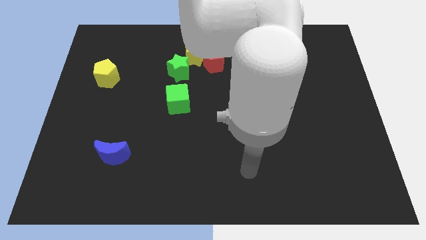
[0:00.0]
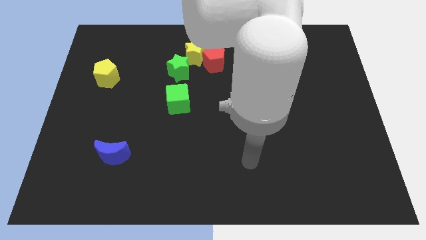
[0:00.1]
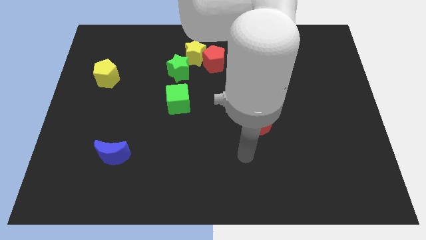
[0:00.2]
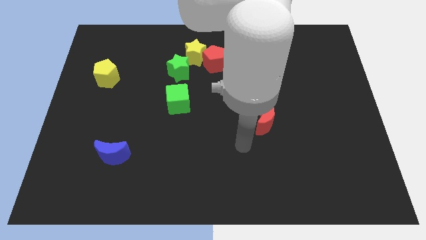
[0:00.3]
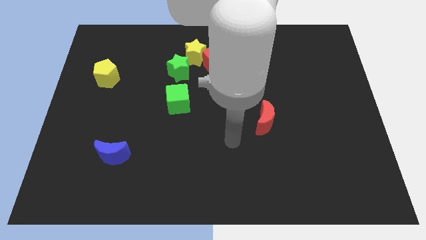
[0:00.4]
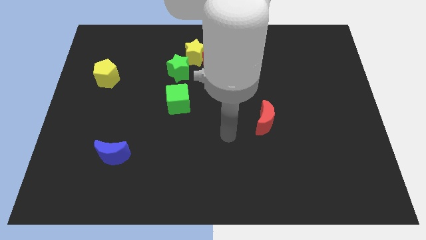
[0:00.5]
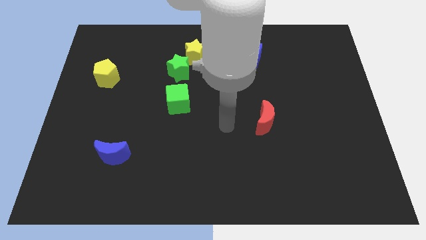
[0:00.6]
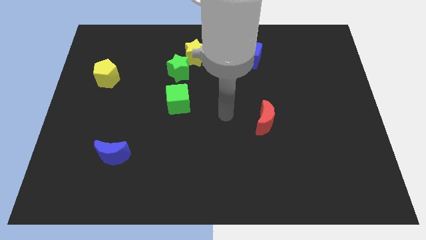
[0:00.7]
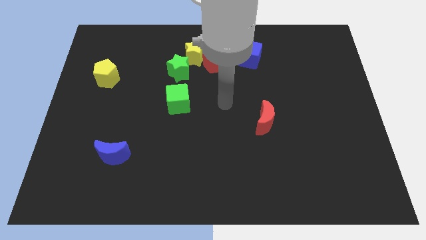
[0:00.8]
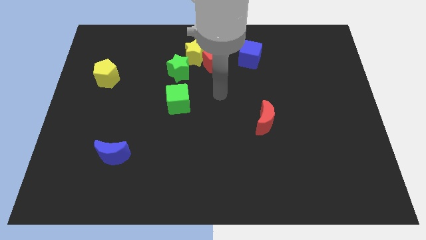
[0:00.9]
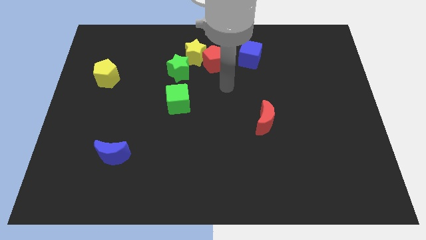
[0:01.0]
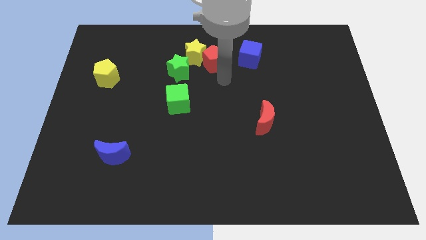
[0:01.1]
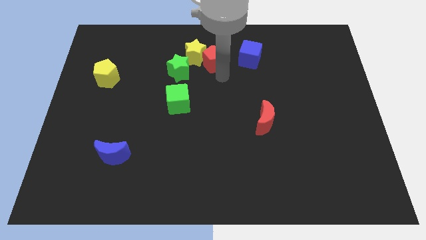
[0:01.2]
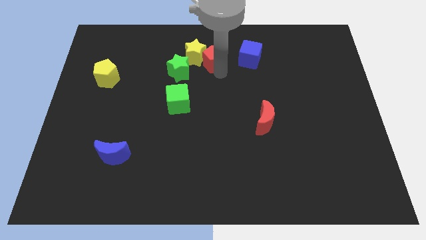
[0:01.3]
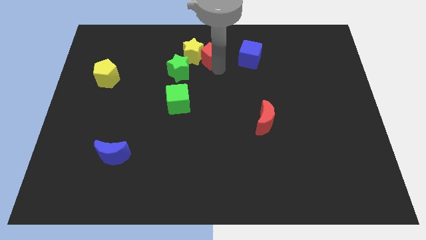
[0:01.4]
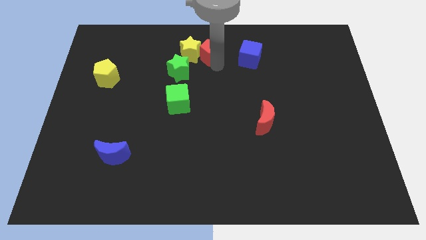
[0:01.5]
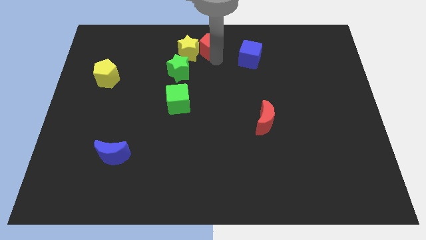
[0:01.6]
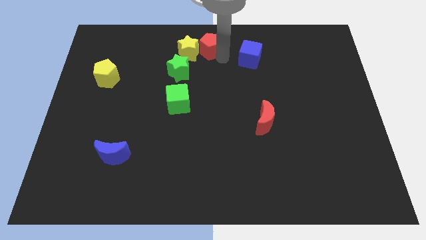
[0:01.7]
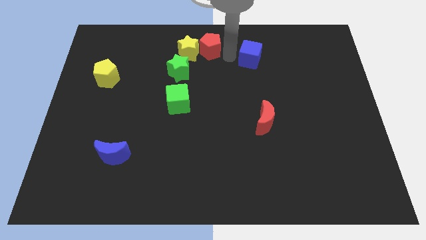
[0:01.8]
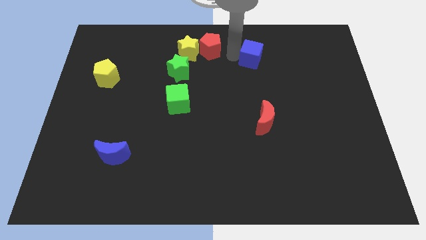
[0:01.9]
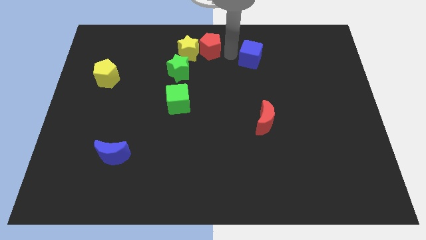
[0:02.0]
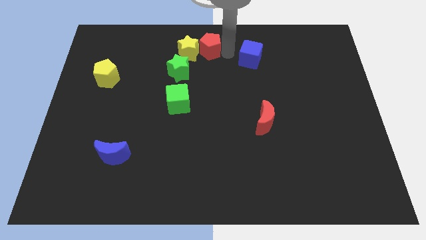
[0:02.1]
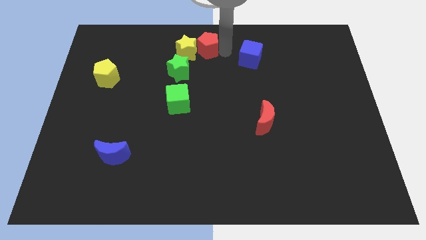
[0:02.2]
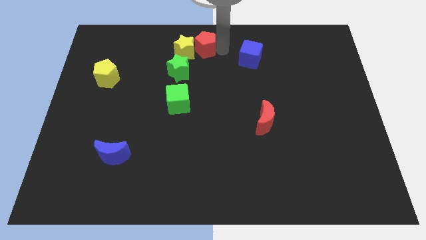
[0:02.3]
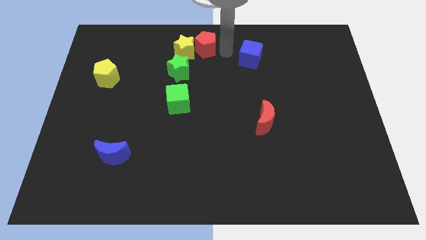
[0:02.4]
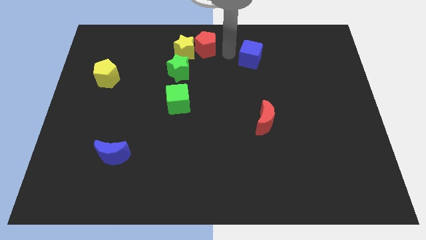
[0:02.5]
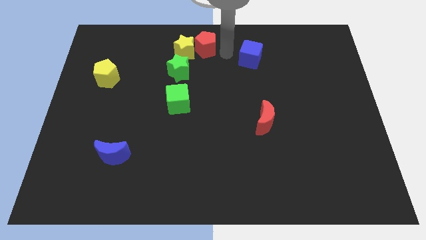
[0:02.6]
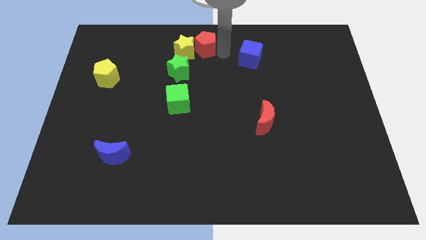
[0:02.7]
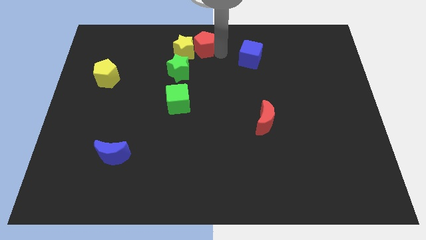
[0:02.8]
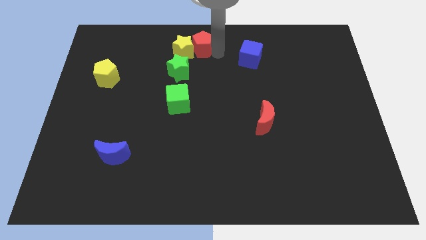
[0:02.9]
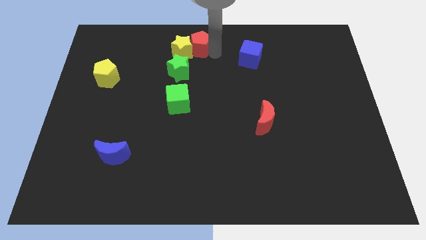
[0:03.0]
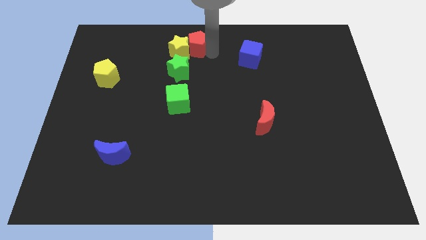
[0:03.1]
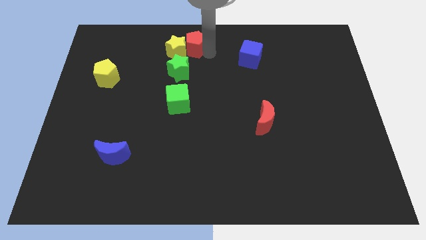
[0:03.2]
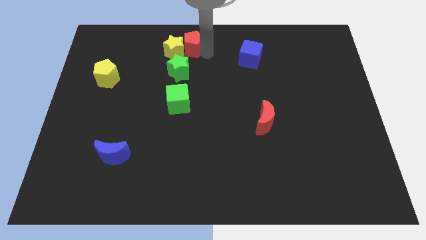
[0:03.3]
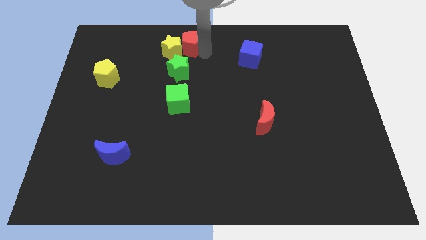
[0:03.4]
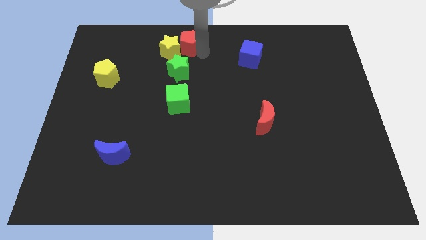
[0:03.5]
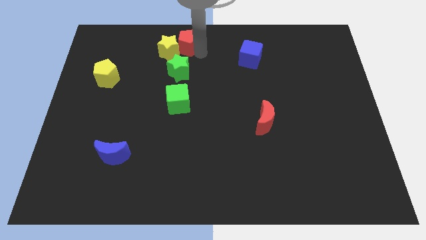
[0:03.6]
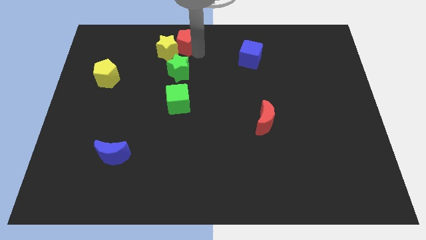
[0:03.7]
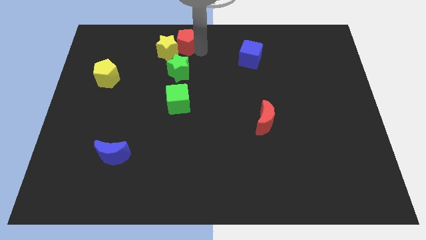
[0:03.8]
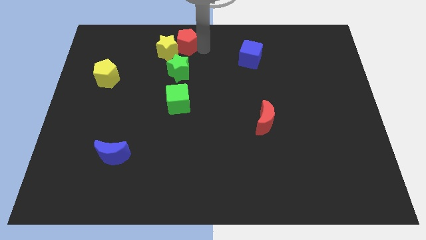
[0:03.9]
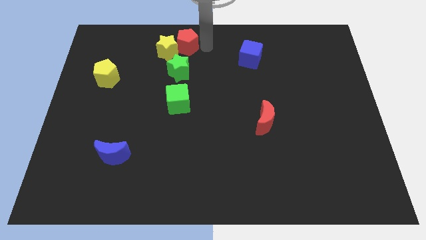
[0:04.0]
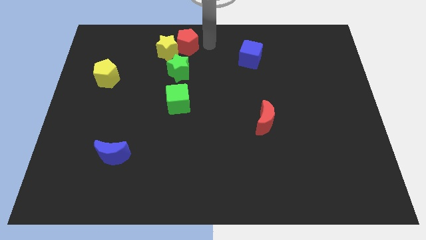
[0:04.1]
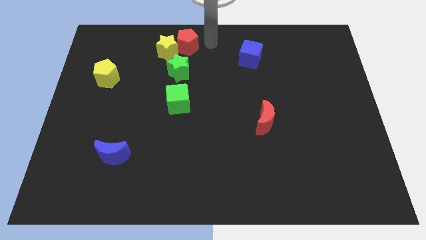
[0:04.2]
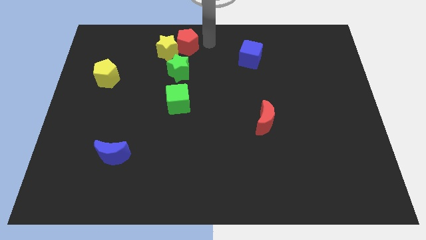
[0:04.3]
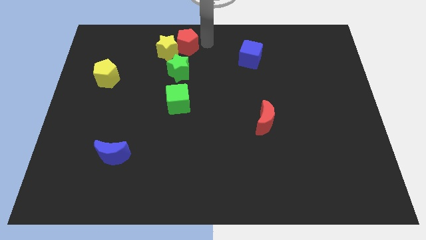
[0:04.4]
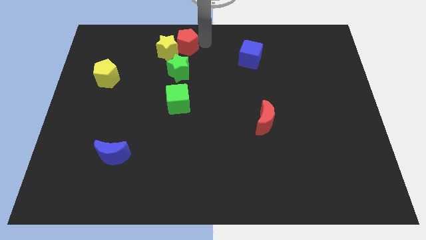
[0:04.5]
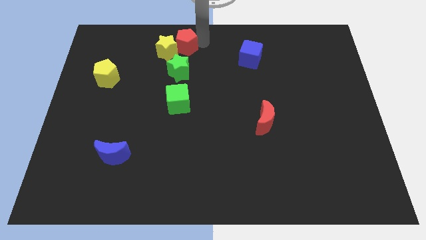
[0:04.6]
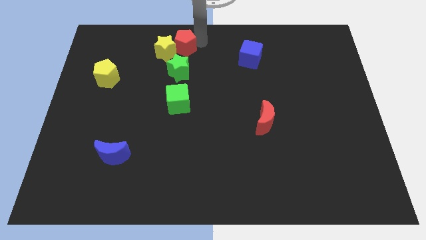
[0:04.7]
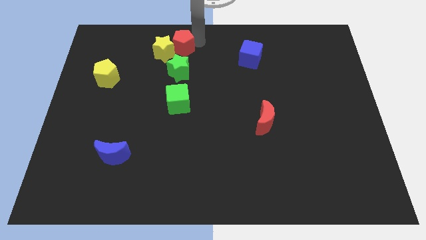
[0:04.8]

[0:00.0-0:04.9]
slightly slide the red pentagon to the left

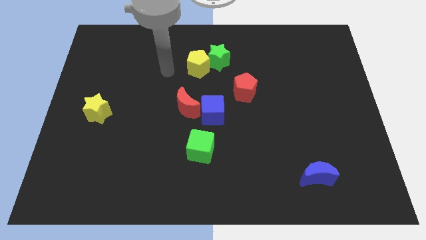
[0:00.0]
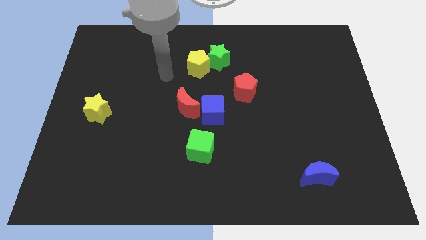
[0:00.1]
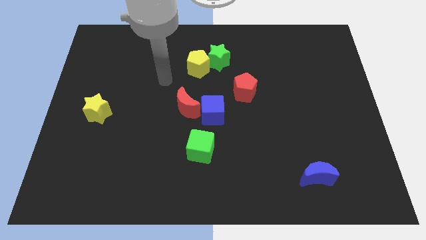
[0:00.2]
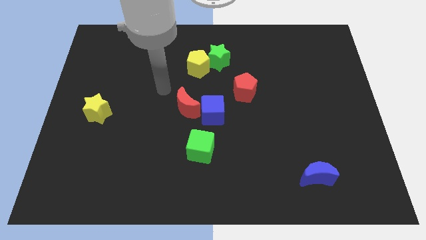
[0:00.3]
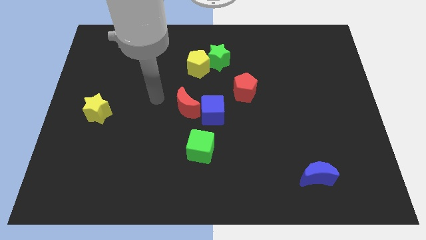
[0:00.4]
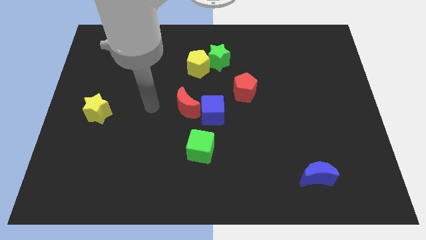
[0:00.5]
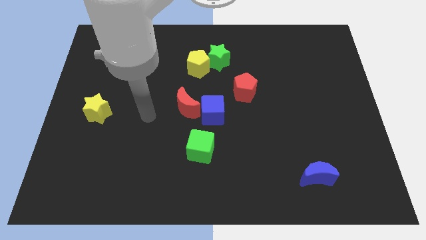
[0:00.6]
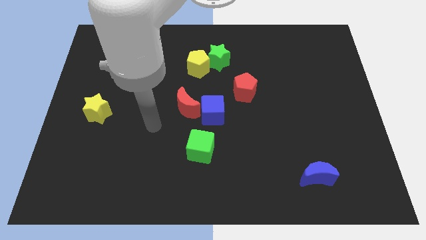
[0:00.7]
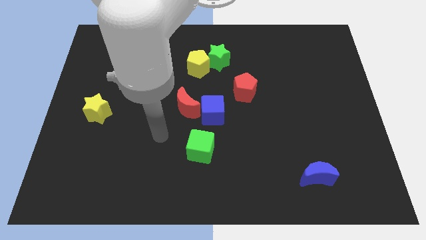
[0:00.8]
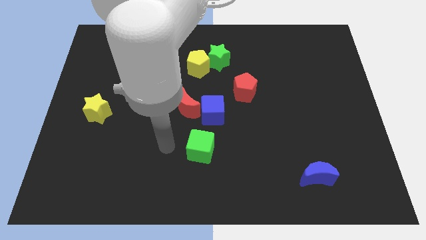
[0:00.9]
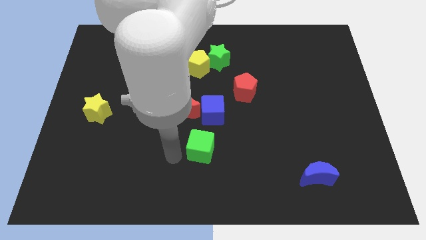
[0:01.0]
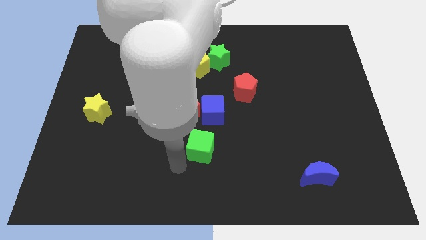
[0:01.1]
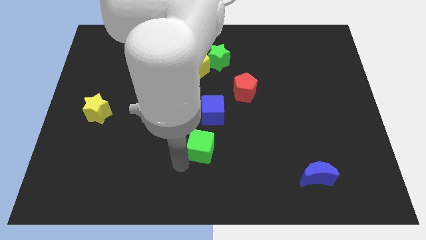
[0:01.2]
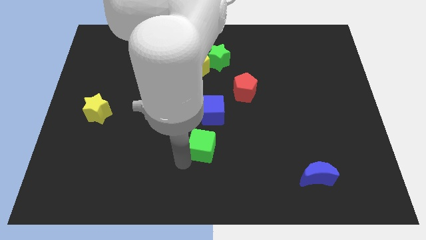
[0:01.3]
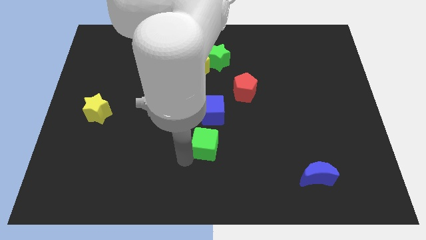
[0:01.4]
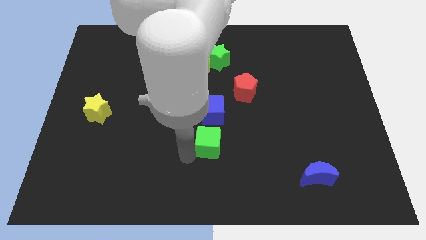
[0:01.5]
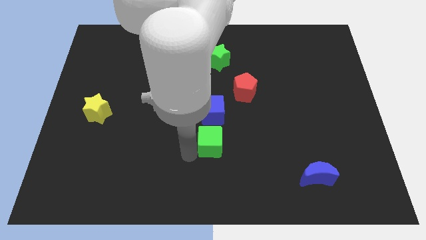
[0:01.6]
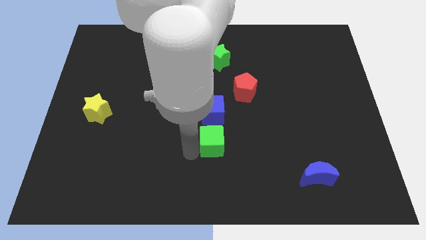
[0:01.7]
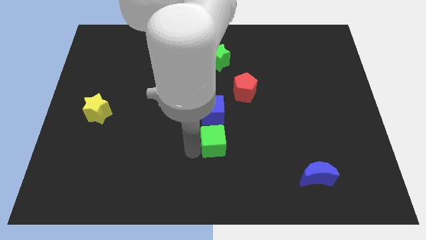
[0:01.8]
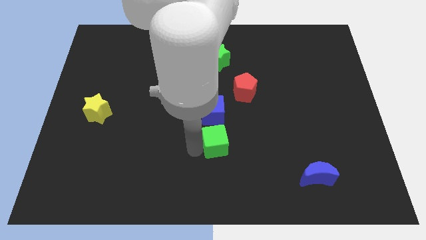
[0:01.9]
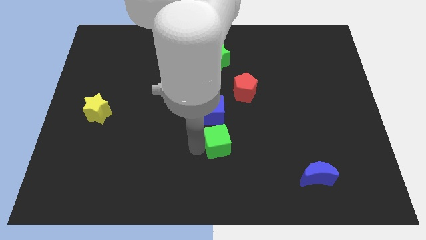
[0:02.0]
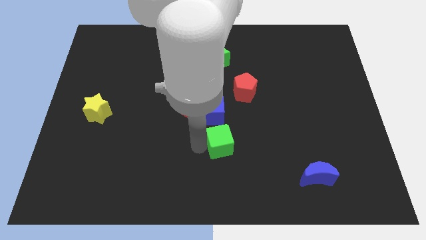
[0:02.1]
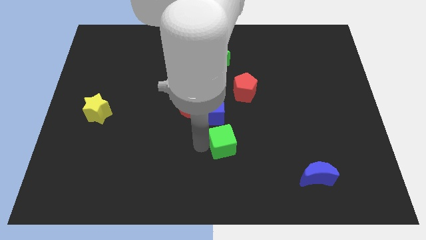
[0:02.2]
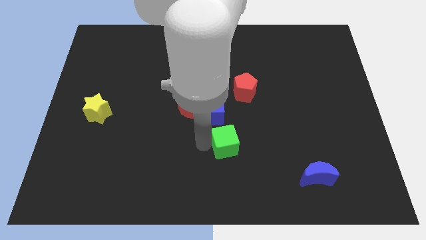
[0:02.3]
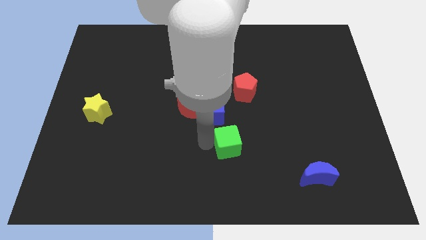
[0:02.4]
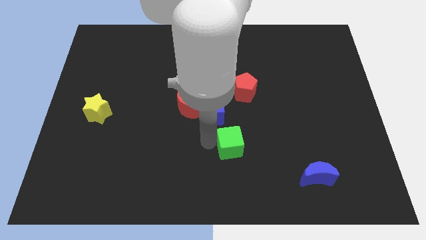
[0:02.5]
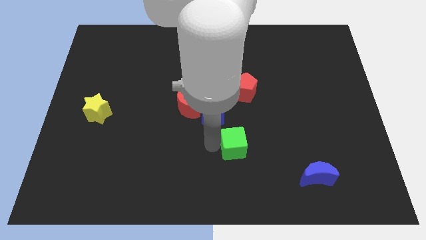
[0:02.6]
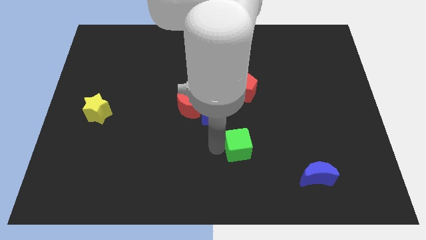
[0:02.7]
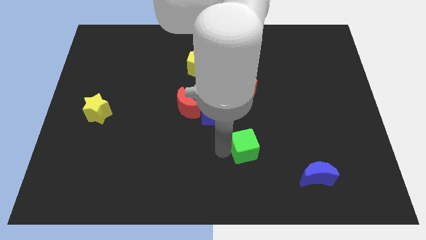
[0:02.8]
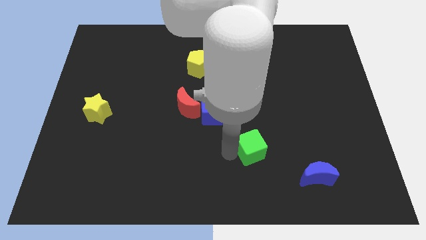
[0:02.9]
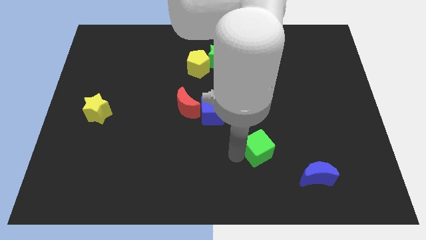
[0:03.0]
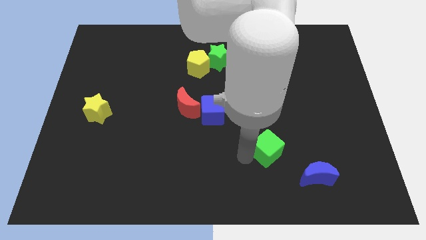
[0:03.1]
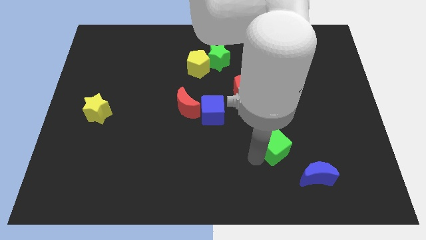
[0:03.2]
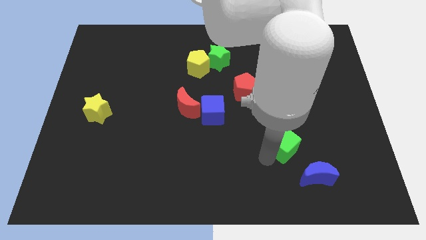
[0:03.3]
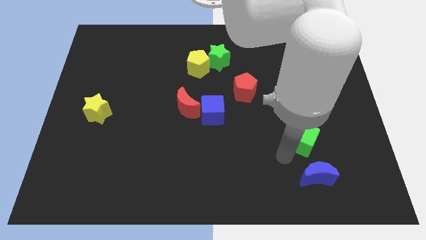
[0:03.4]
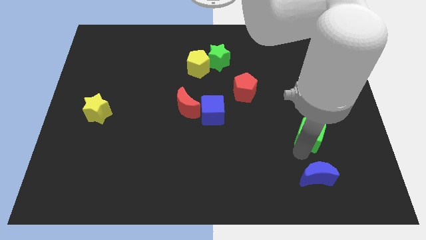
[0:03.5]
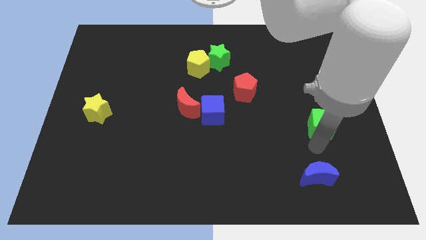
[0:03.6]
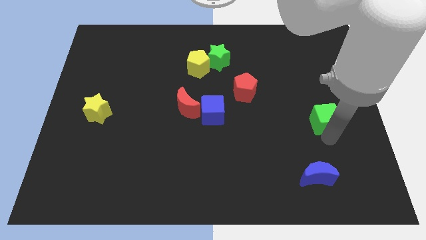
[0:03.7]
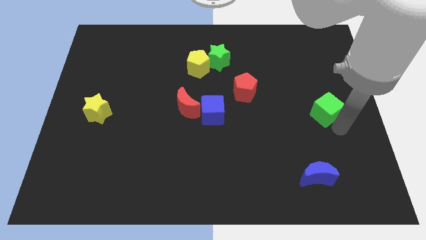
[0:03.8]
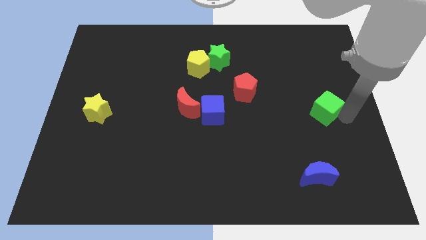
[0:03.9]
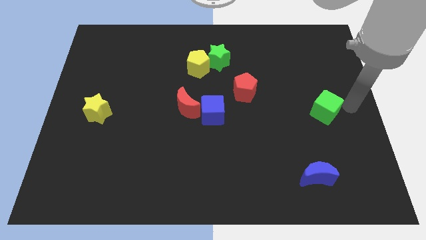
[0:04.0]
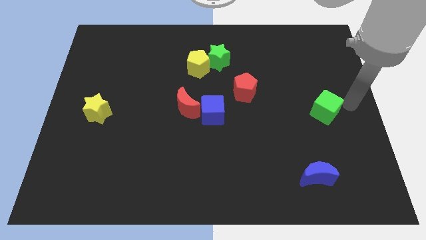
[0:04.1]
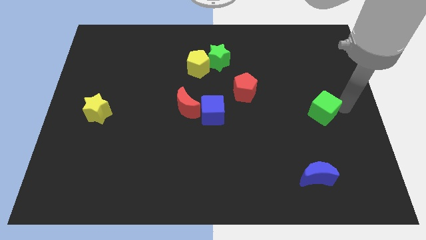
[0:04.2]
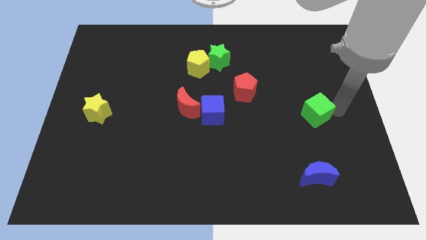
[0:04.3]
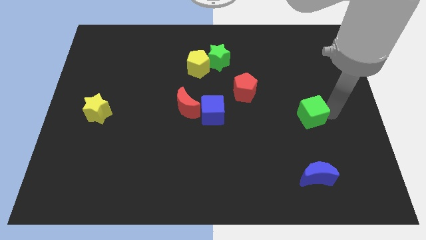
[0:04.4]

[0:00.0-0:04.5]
move the green cube diagonally upwards and right a little bit
